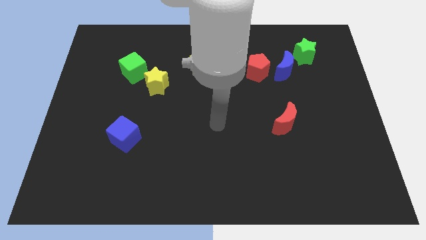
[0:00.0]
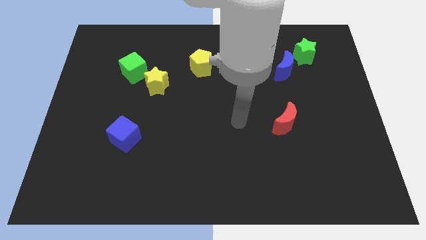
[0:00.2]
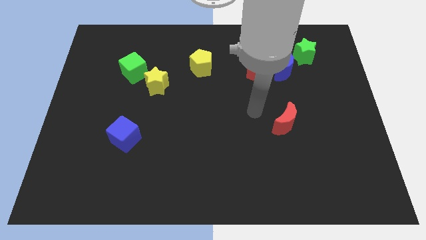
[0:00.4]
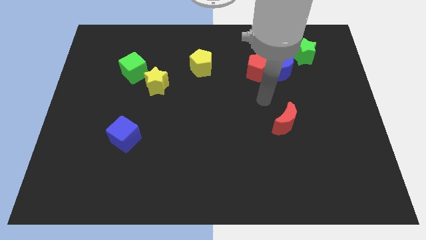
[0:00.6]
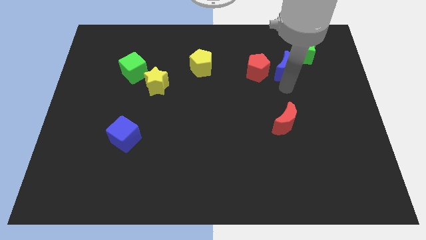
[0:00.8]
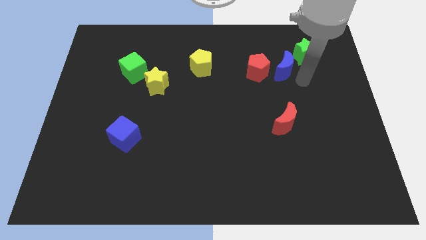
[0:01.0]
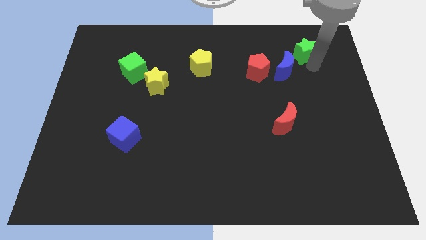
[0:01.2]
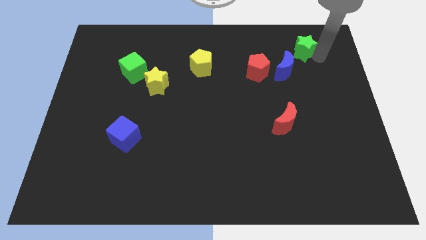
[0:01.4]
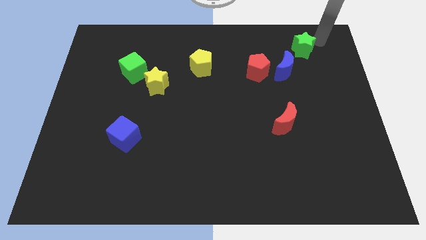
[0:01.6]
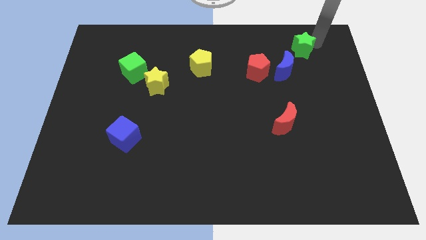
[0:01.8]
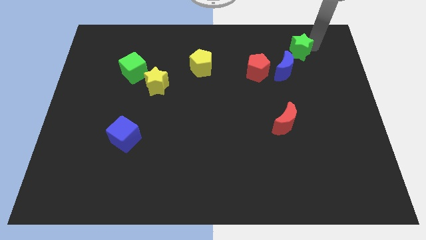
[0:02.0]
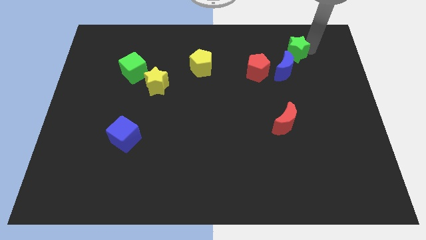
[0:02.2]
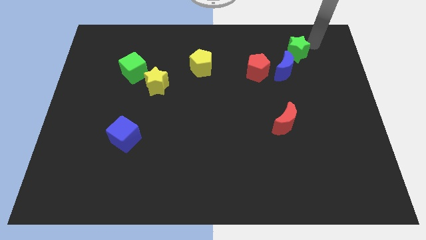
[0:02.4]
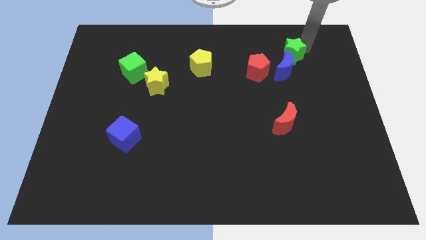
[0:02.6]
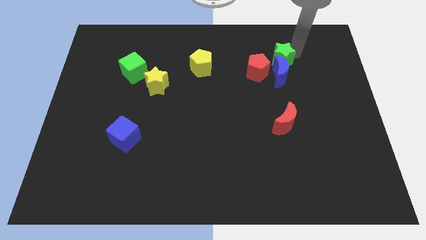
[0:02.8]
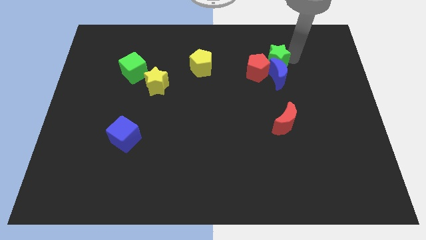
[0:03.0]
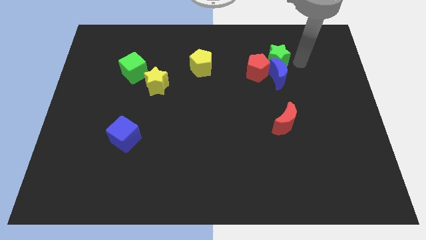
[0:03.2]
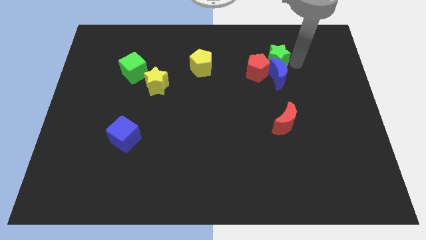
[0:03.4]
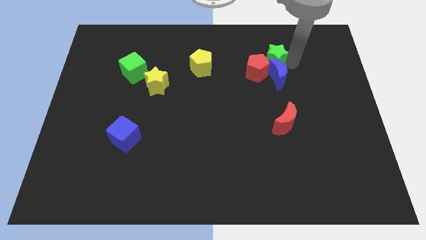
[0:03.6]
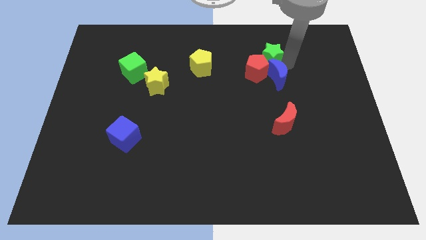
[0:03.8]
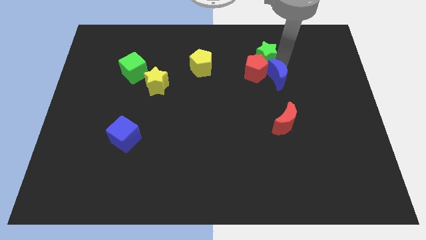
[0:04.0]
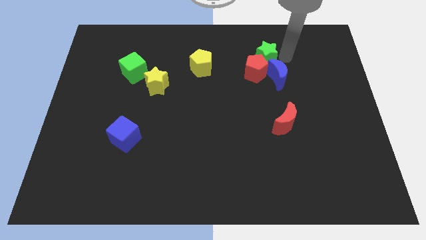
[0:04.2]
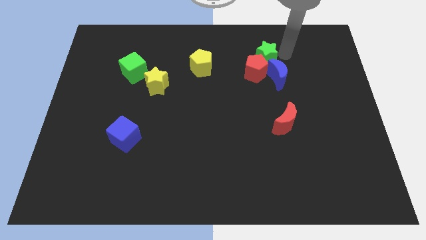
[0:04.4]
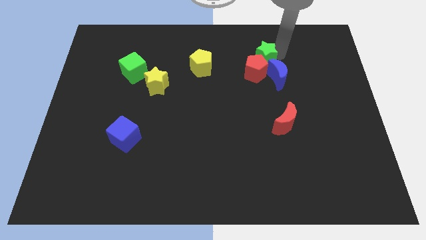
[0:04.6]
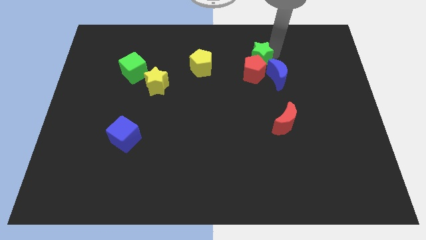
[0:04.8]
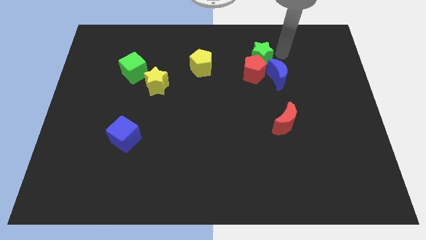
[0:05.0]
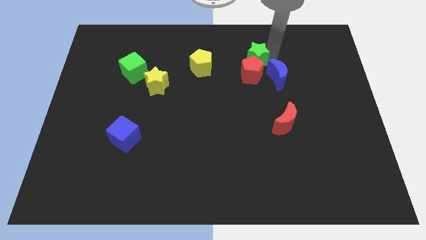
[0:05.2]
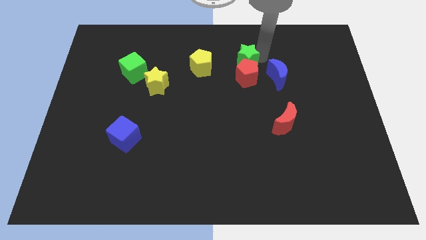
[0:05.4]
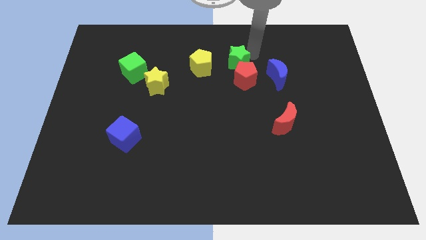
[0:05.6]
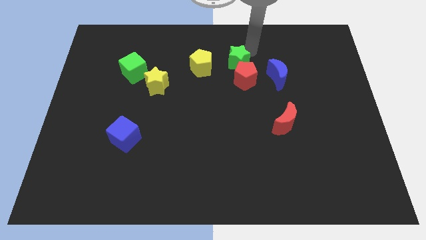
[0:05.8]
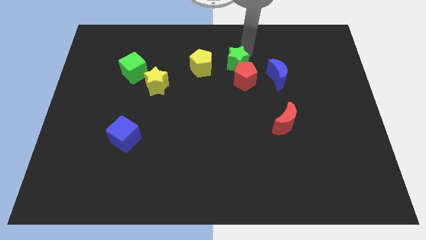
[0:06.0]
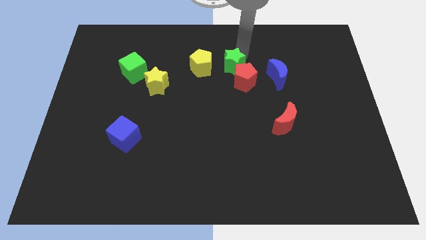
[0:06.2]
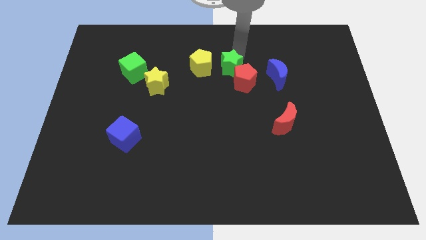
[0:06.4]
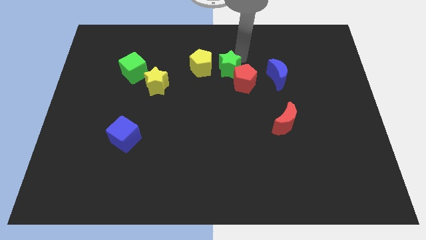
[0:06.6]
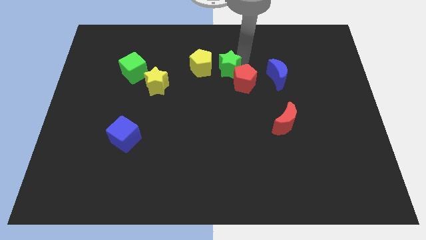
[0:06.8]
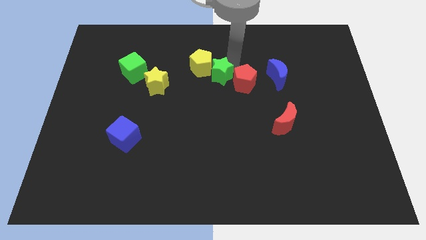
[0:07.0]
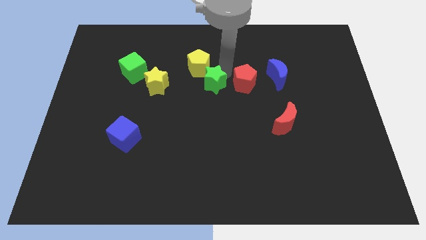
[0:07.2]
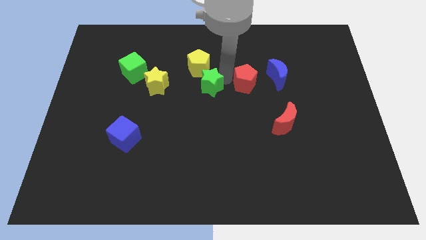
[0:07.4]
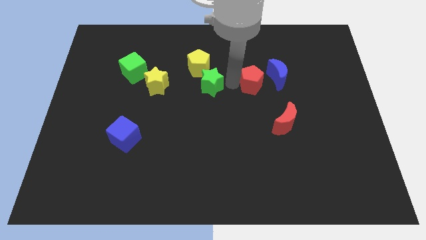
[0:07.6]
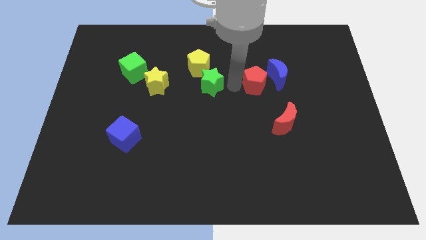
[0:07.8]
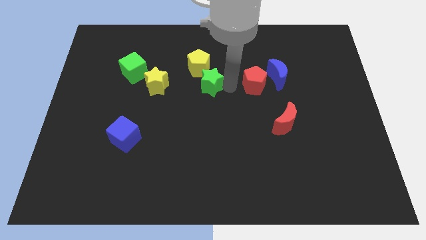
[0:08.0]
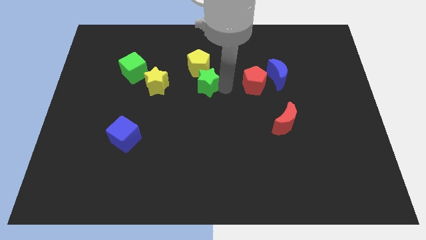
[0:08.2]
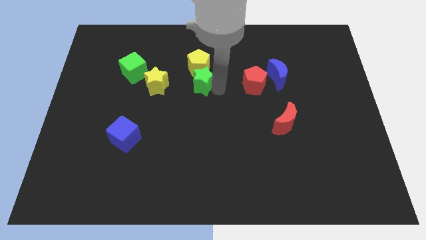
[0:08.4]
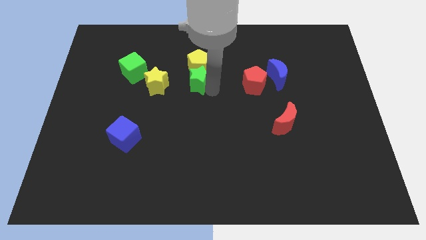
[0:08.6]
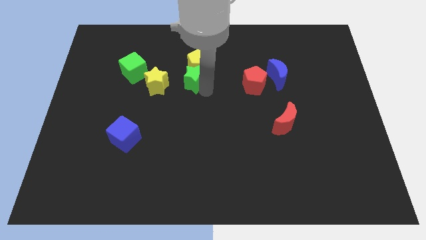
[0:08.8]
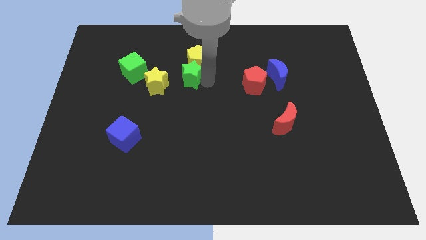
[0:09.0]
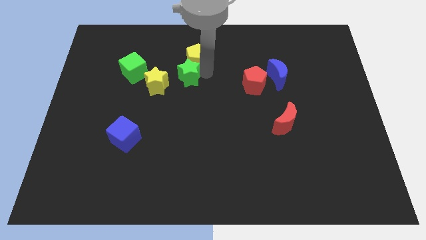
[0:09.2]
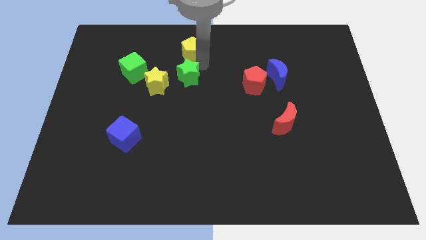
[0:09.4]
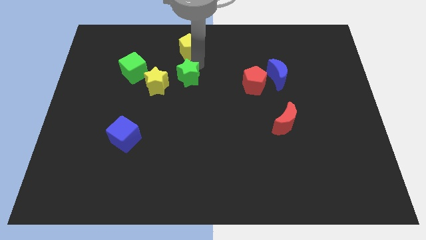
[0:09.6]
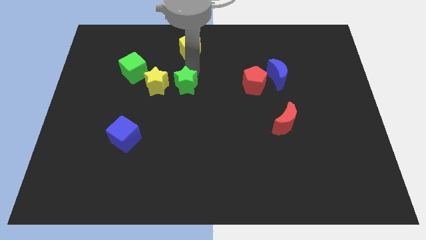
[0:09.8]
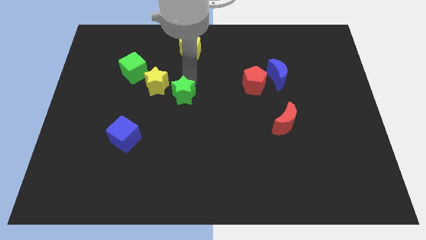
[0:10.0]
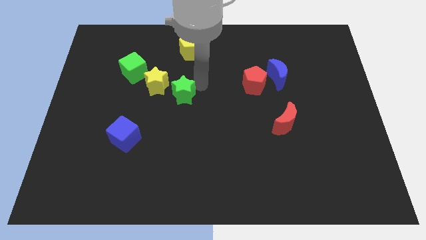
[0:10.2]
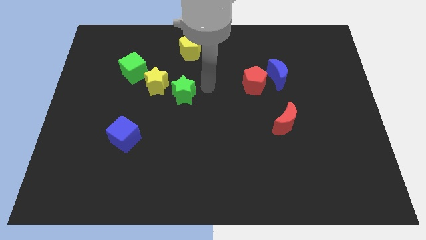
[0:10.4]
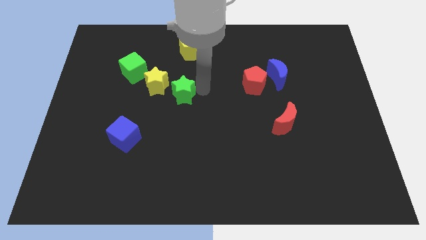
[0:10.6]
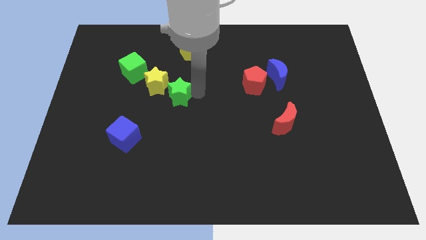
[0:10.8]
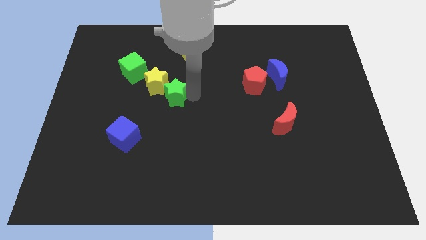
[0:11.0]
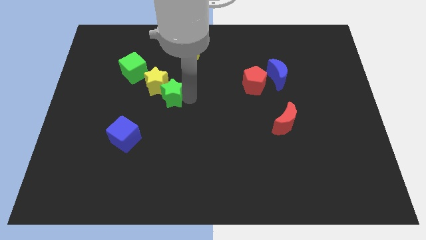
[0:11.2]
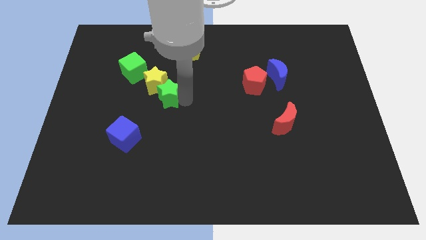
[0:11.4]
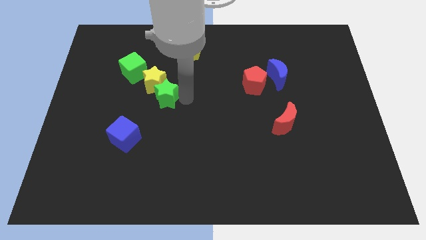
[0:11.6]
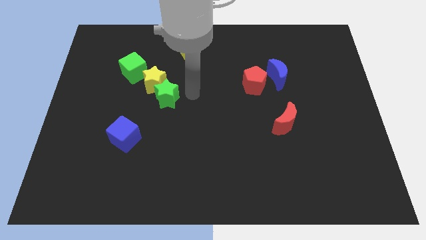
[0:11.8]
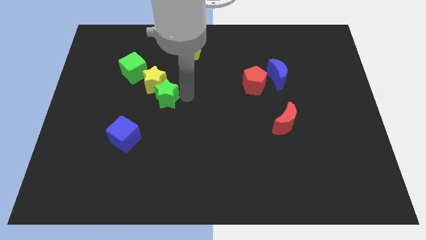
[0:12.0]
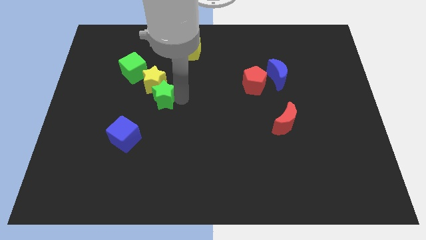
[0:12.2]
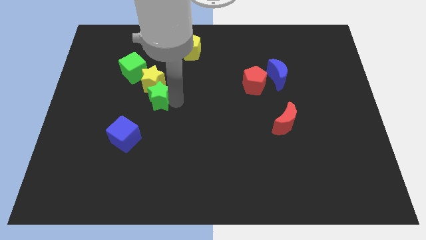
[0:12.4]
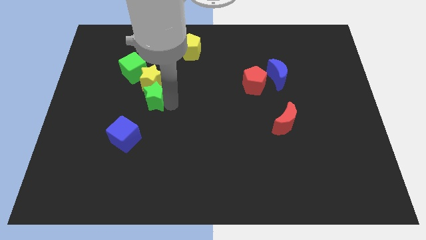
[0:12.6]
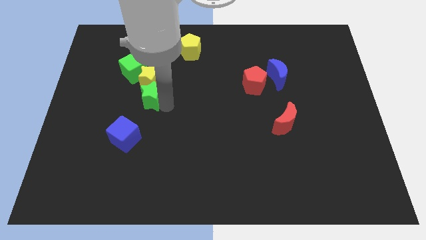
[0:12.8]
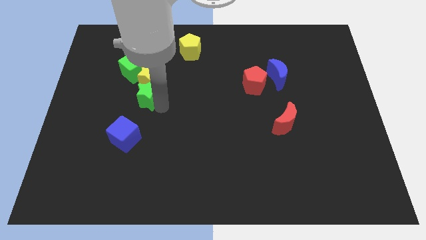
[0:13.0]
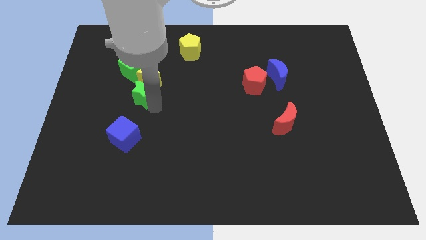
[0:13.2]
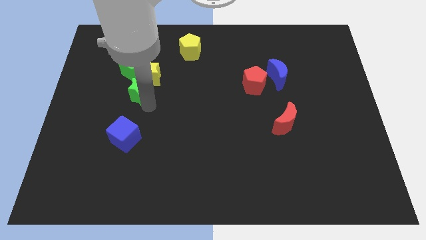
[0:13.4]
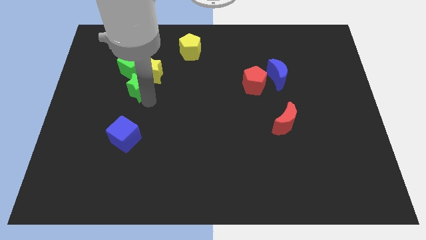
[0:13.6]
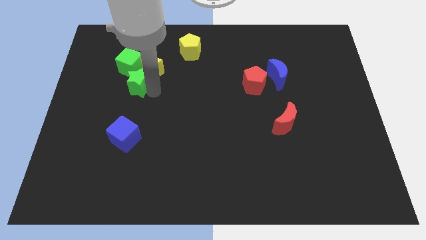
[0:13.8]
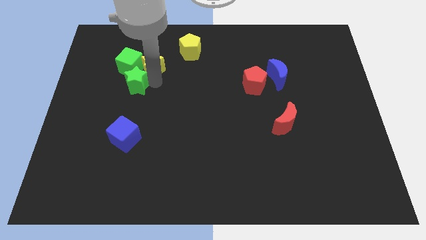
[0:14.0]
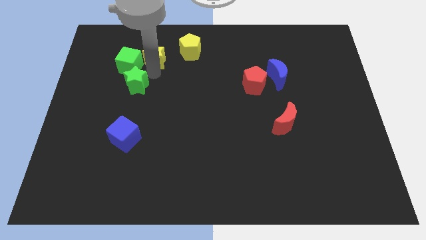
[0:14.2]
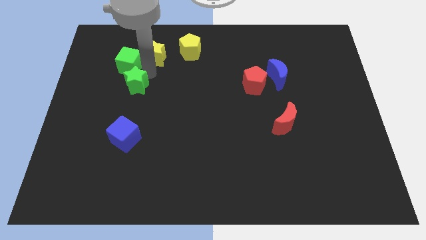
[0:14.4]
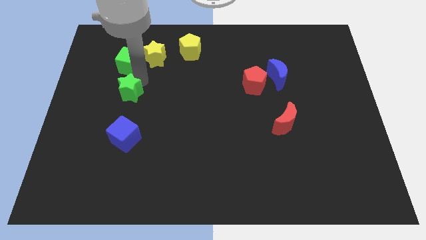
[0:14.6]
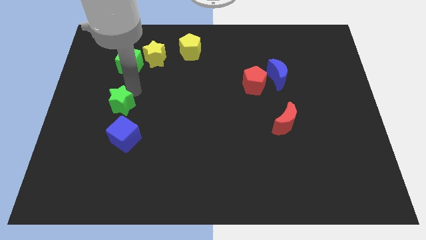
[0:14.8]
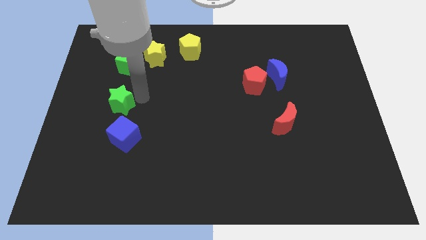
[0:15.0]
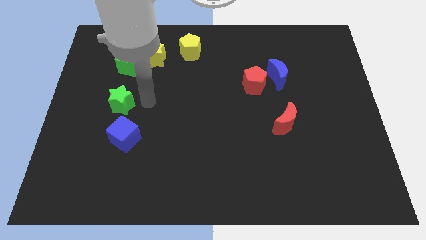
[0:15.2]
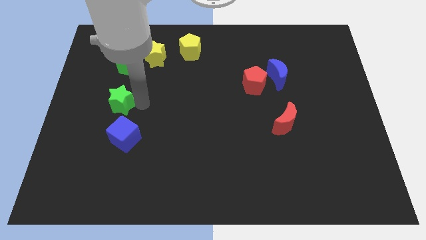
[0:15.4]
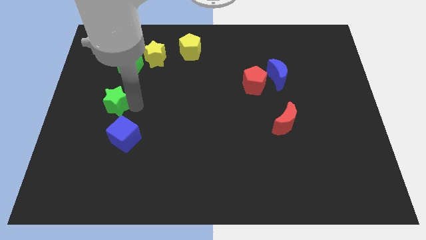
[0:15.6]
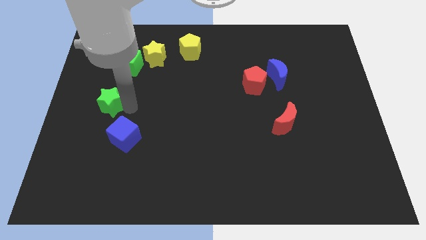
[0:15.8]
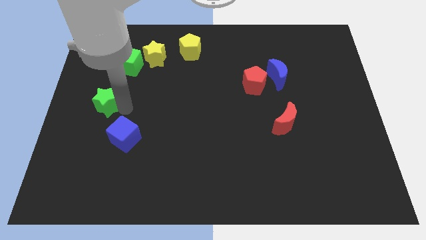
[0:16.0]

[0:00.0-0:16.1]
move the green star to the left side
